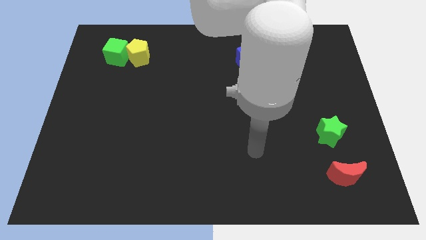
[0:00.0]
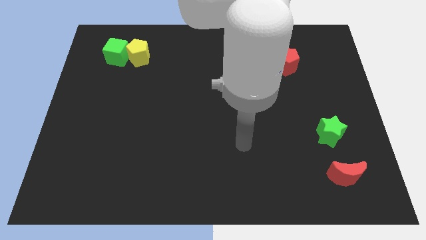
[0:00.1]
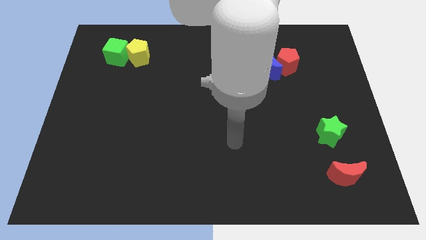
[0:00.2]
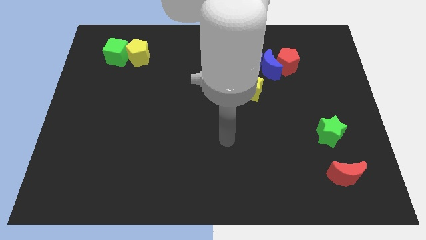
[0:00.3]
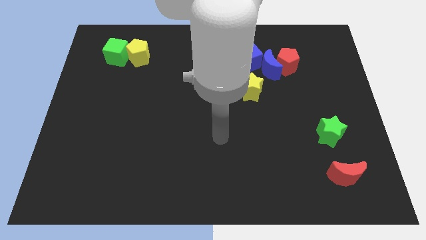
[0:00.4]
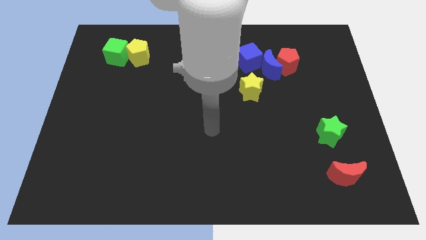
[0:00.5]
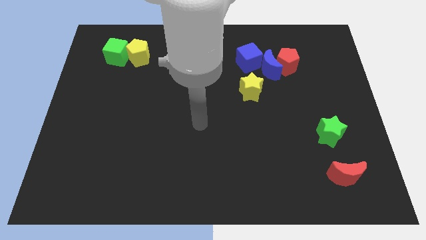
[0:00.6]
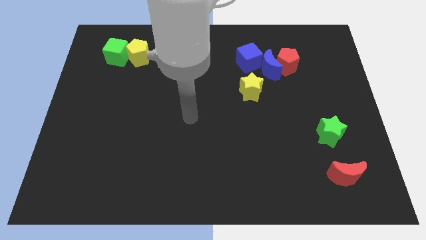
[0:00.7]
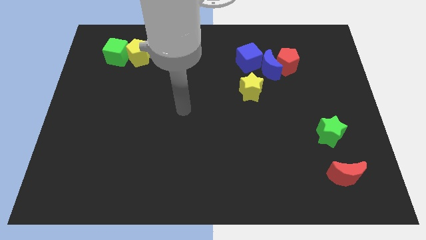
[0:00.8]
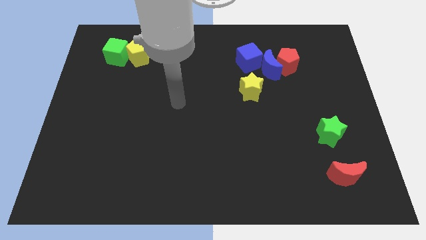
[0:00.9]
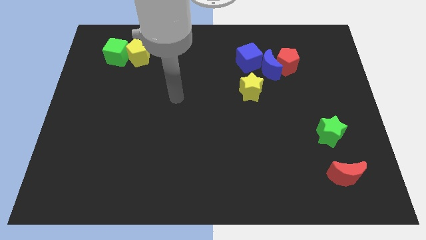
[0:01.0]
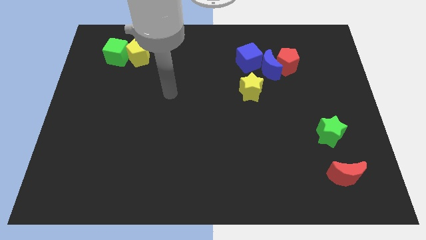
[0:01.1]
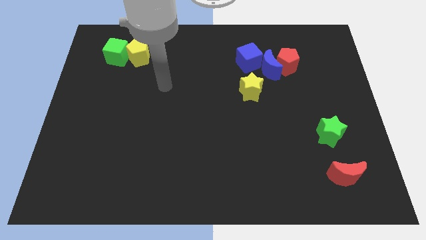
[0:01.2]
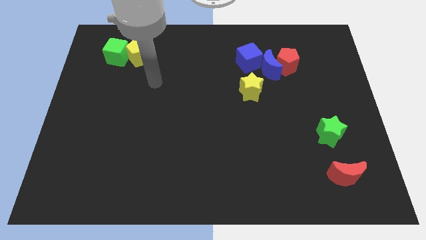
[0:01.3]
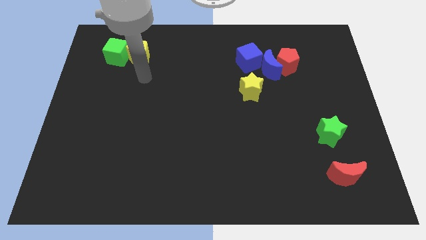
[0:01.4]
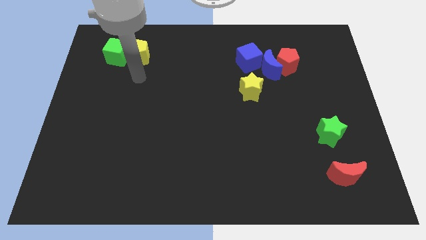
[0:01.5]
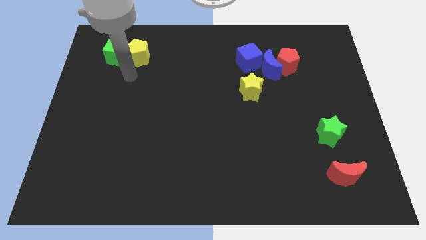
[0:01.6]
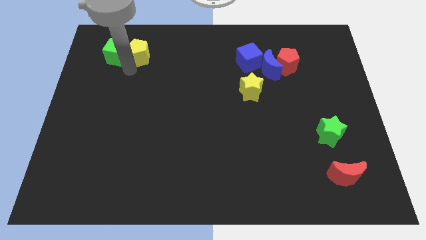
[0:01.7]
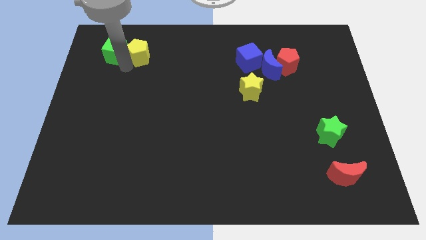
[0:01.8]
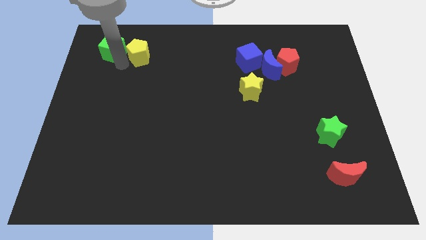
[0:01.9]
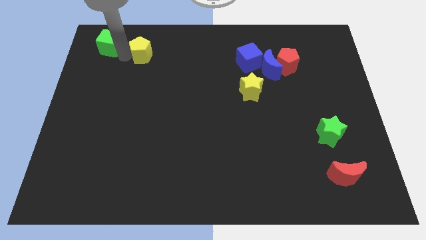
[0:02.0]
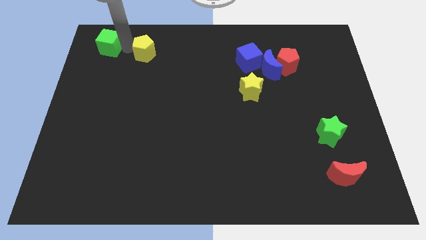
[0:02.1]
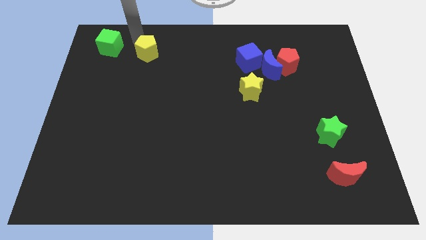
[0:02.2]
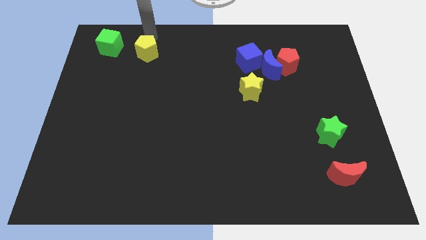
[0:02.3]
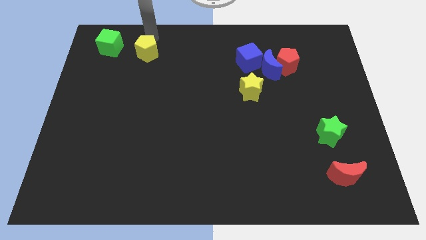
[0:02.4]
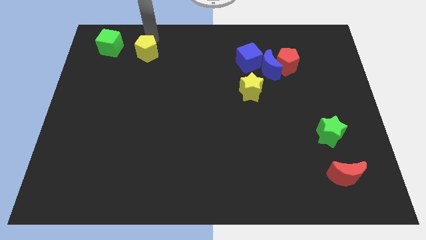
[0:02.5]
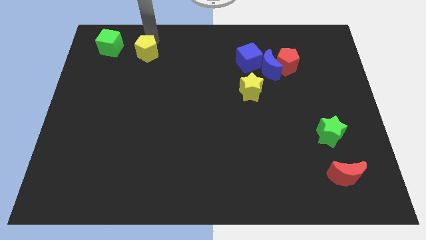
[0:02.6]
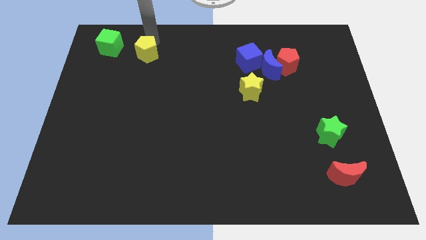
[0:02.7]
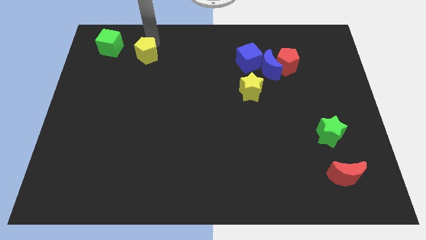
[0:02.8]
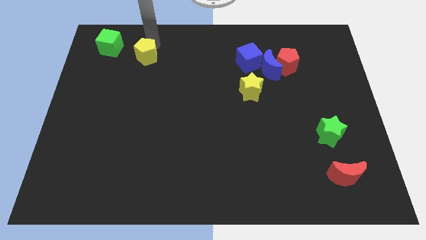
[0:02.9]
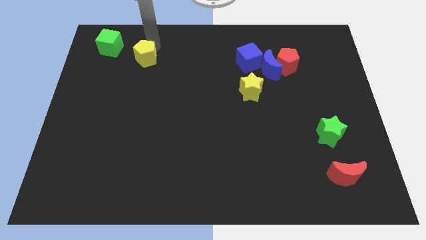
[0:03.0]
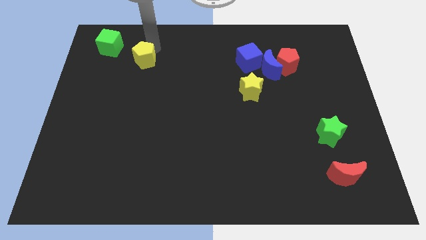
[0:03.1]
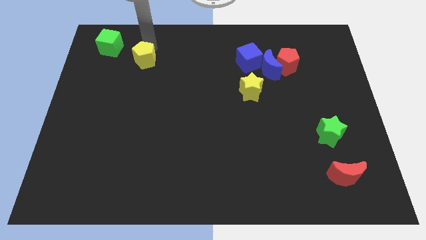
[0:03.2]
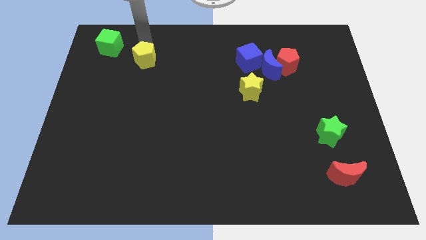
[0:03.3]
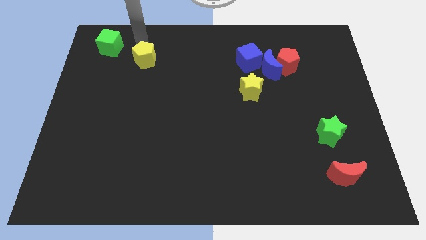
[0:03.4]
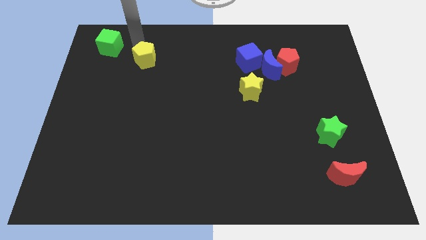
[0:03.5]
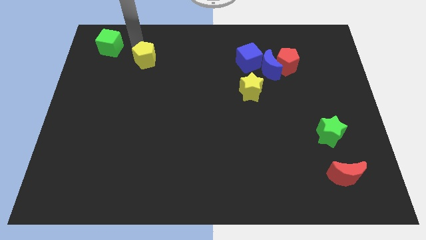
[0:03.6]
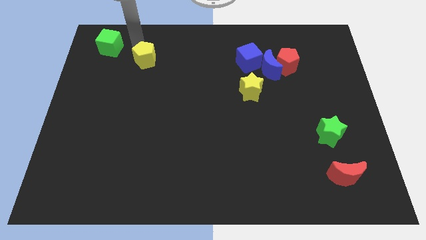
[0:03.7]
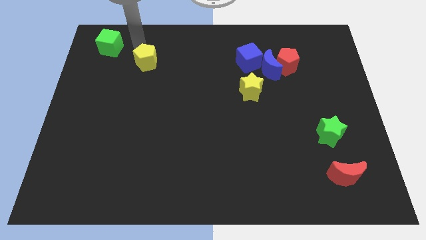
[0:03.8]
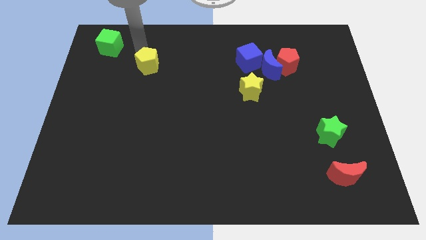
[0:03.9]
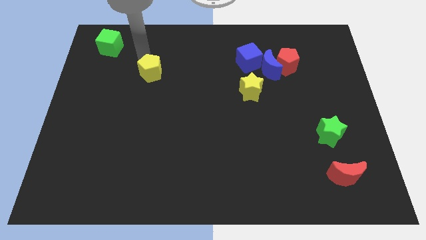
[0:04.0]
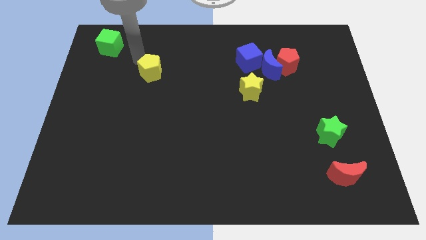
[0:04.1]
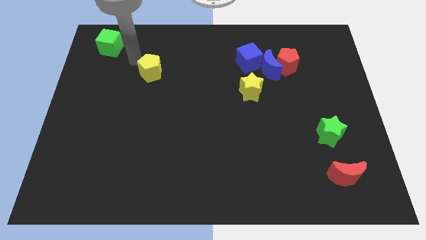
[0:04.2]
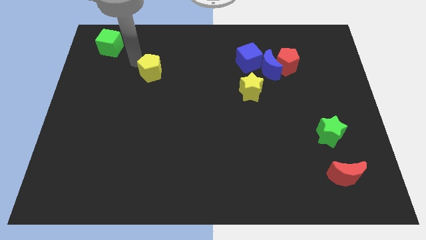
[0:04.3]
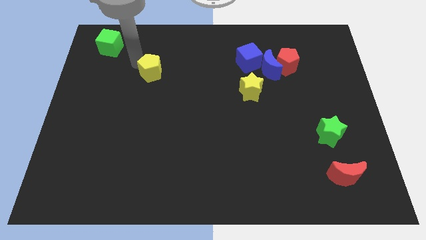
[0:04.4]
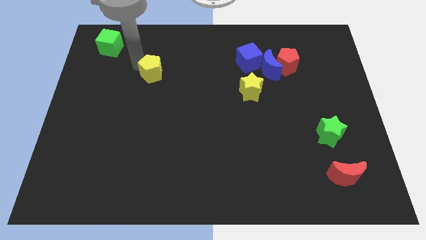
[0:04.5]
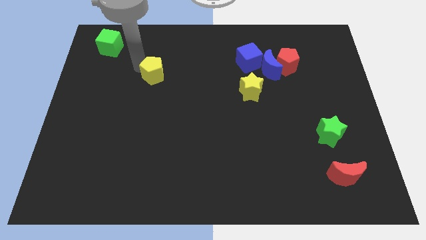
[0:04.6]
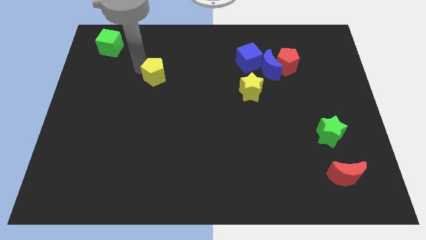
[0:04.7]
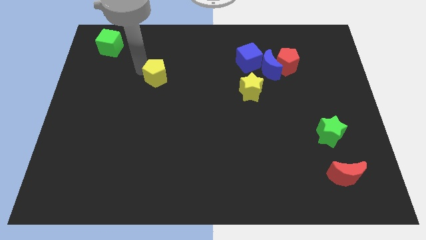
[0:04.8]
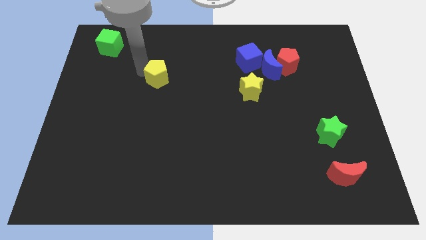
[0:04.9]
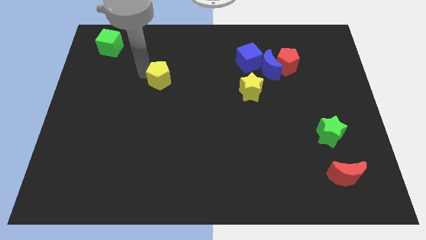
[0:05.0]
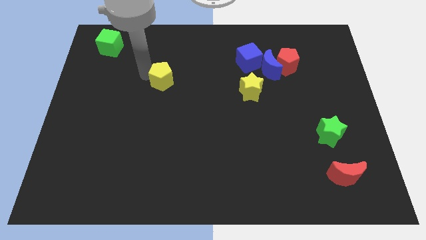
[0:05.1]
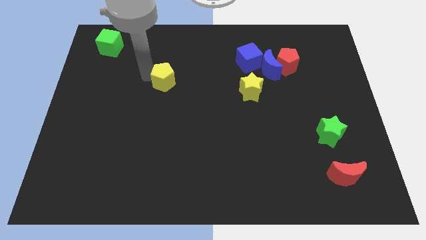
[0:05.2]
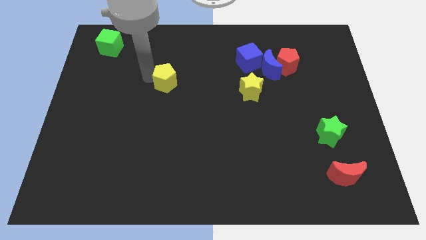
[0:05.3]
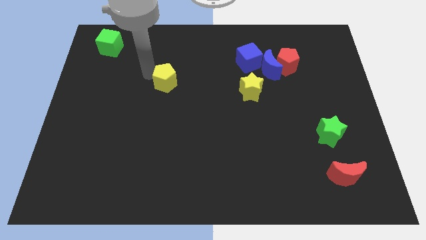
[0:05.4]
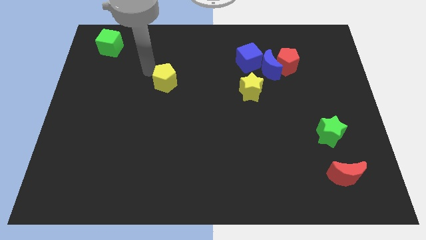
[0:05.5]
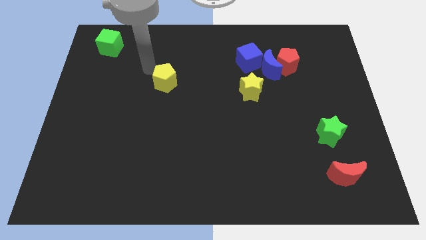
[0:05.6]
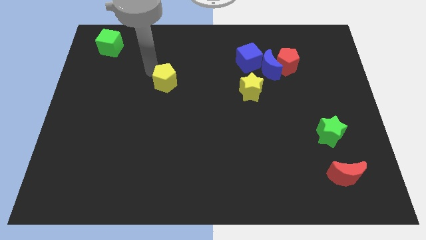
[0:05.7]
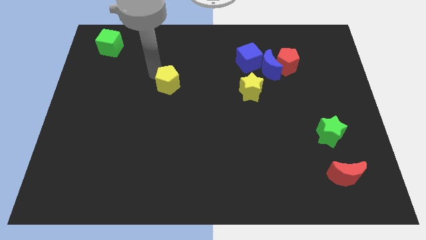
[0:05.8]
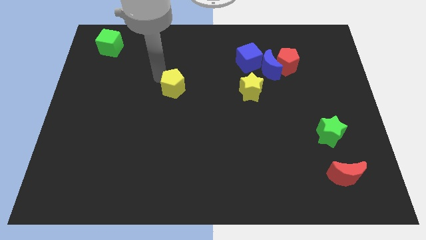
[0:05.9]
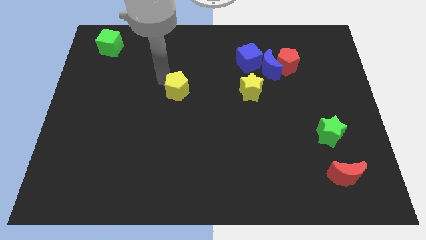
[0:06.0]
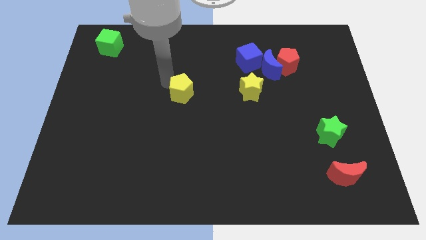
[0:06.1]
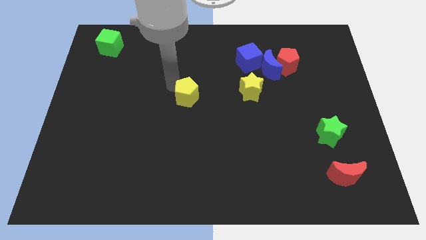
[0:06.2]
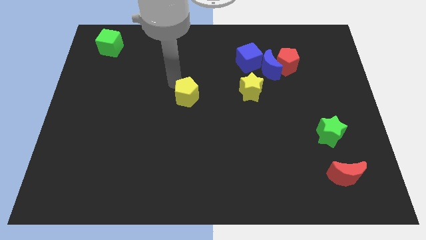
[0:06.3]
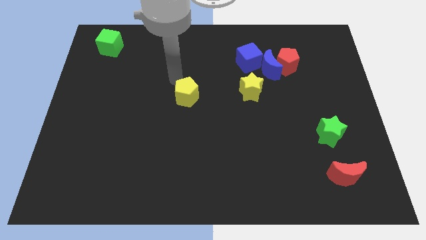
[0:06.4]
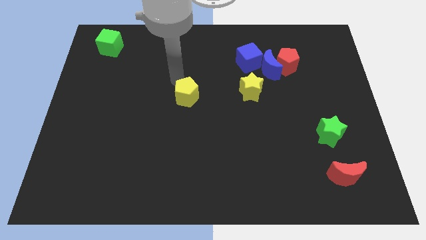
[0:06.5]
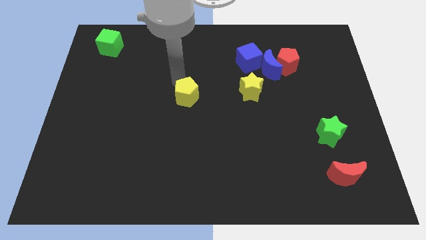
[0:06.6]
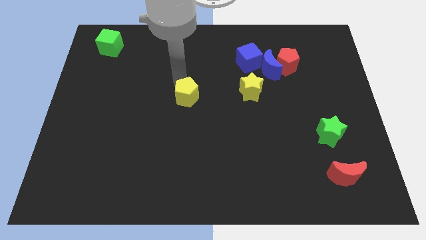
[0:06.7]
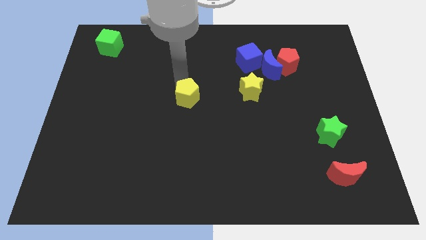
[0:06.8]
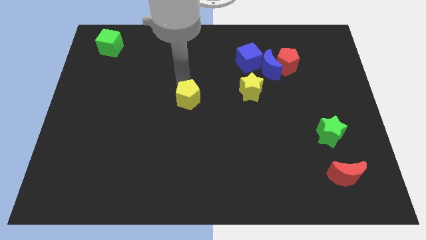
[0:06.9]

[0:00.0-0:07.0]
move the yellow pentagon downwards and to the right

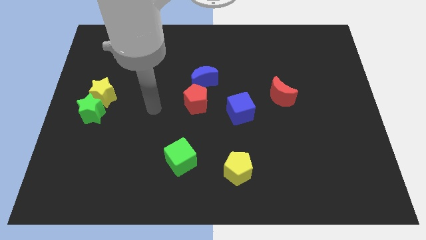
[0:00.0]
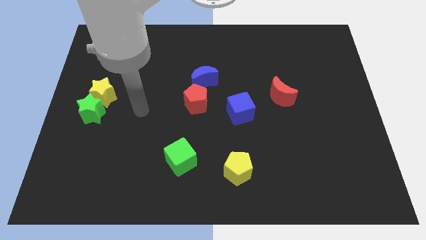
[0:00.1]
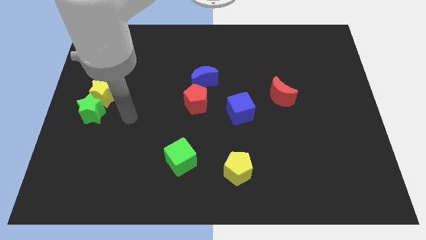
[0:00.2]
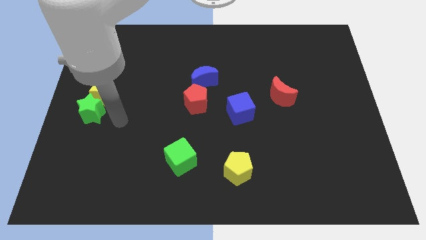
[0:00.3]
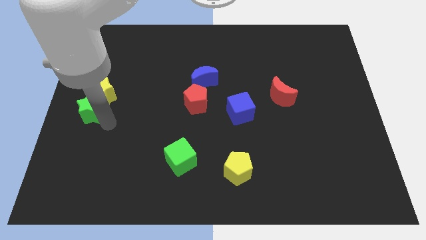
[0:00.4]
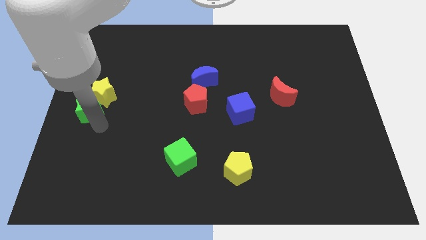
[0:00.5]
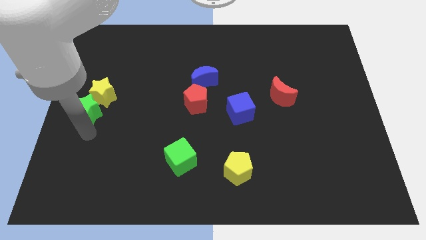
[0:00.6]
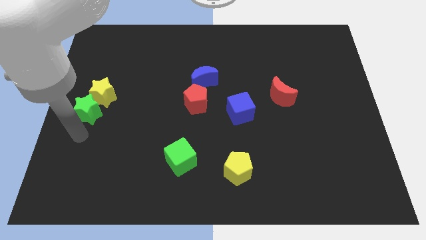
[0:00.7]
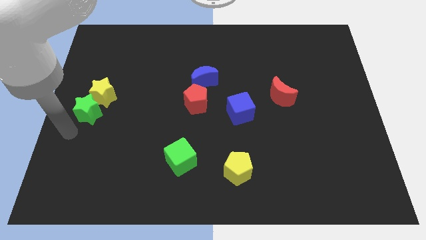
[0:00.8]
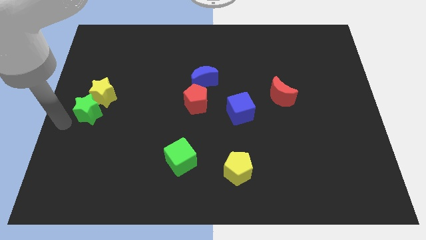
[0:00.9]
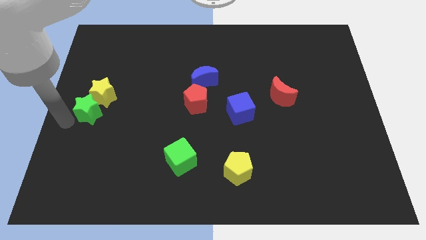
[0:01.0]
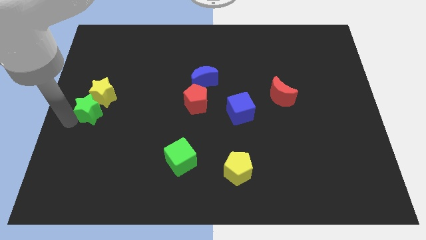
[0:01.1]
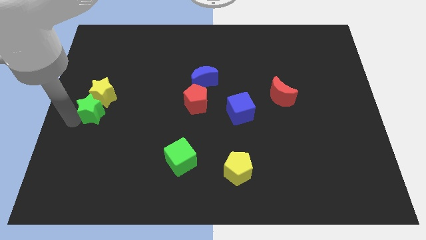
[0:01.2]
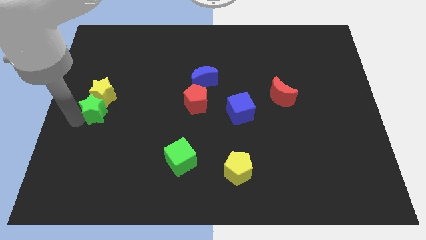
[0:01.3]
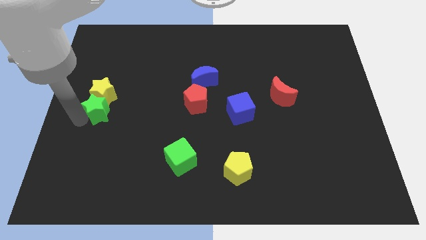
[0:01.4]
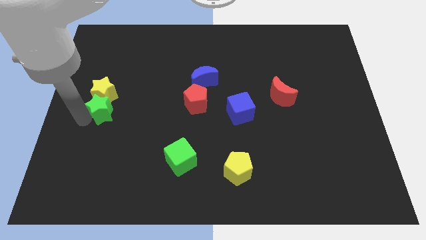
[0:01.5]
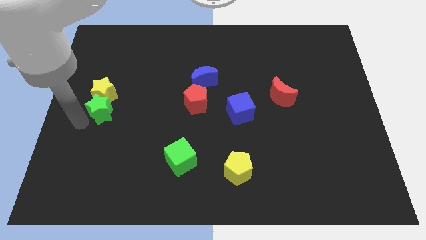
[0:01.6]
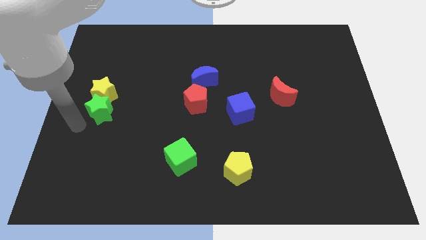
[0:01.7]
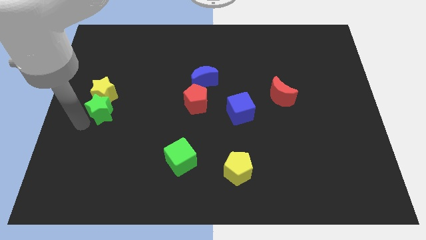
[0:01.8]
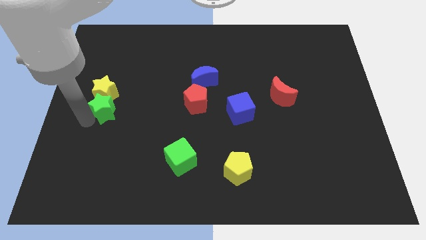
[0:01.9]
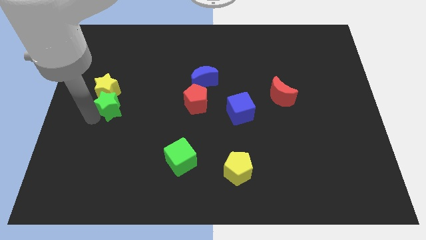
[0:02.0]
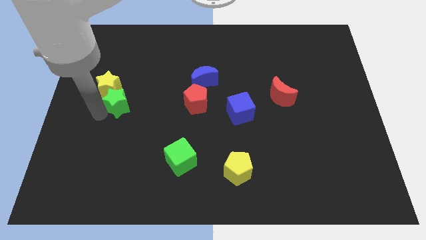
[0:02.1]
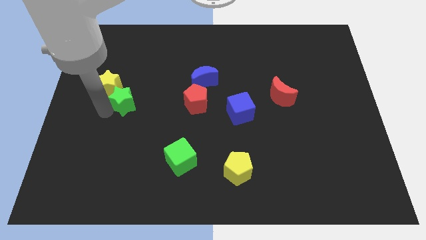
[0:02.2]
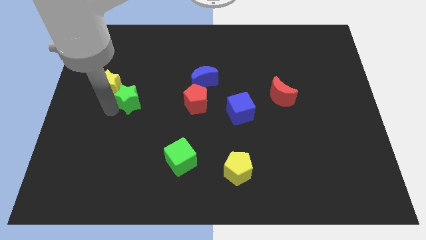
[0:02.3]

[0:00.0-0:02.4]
push the green star diagonally up and to the right a little bit
